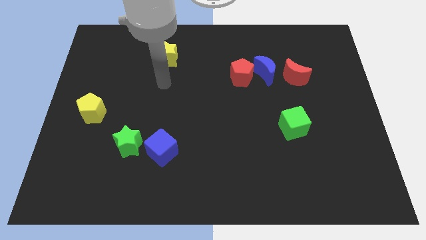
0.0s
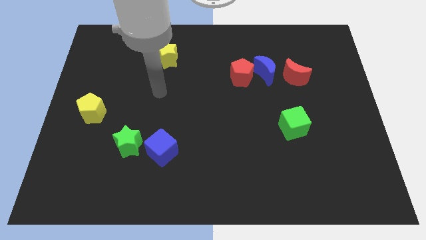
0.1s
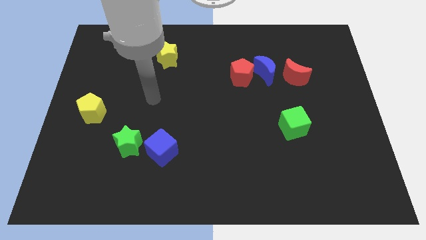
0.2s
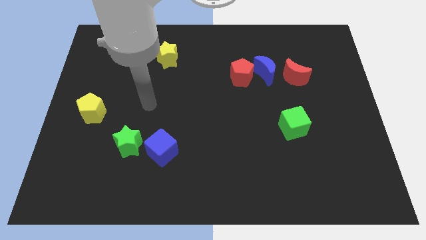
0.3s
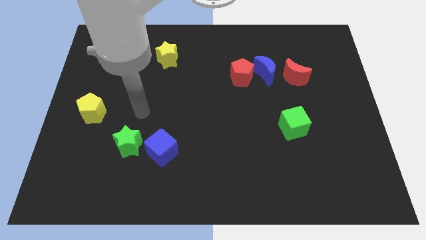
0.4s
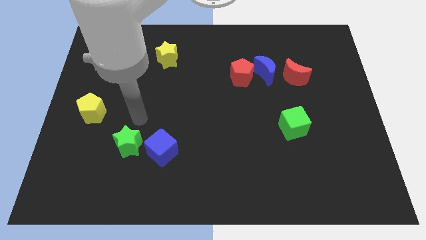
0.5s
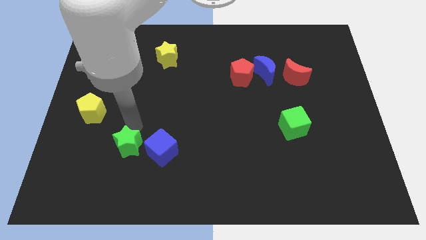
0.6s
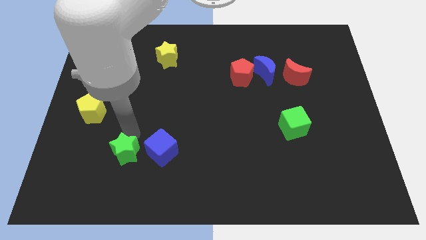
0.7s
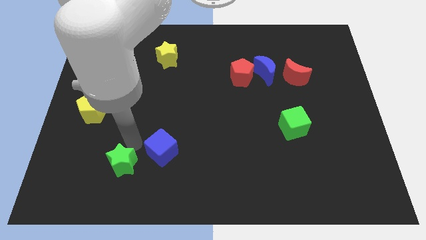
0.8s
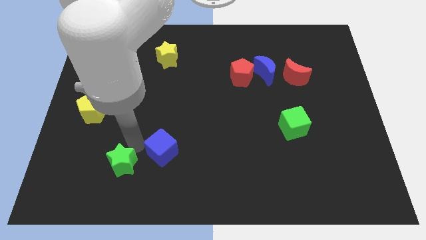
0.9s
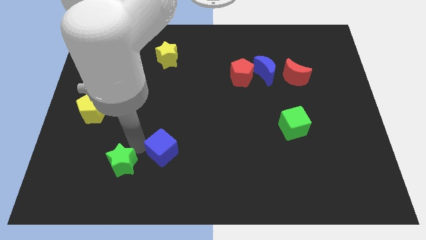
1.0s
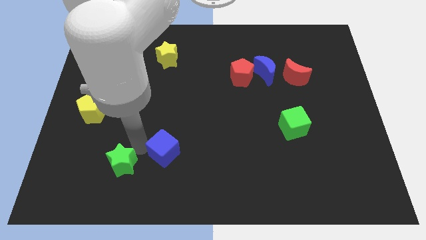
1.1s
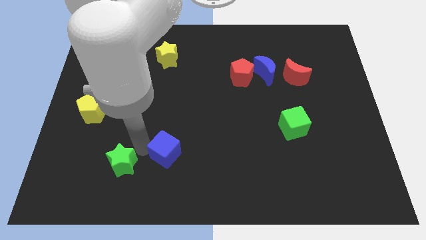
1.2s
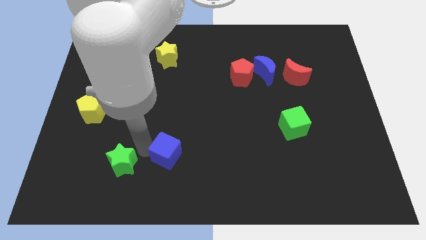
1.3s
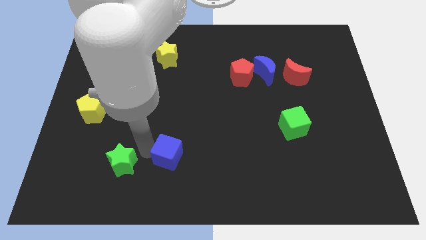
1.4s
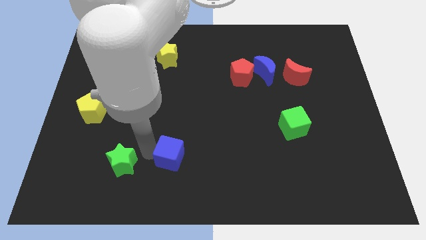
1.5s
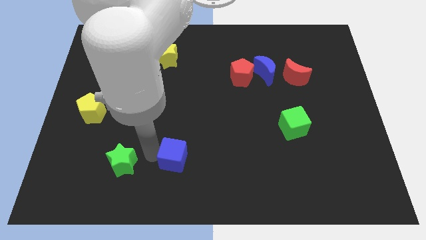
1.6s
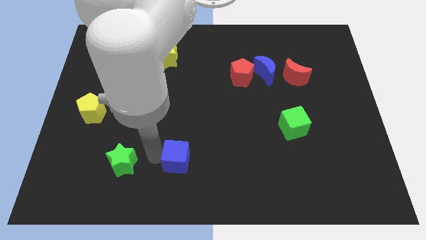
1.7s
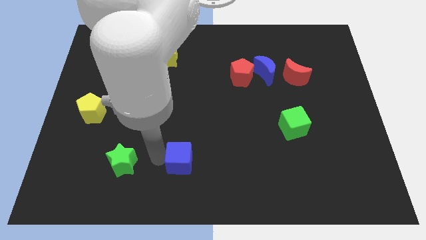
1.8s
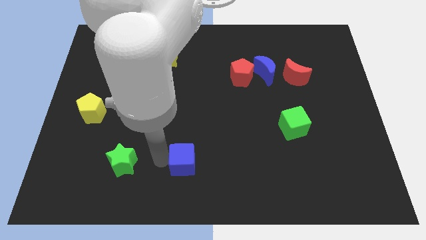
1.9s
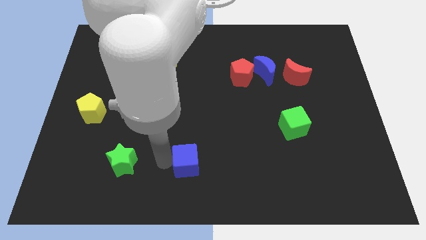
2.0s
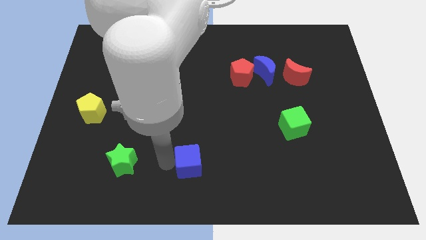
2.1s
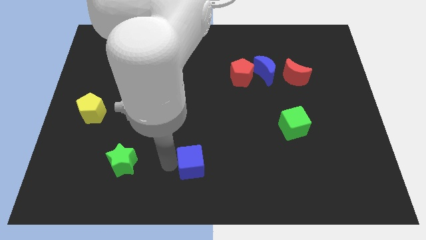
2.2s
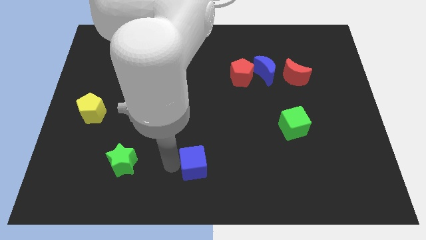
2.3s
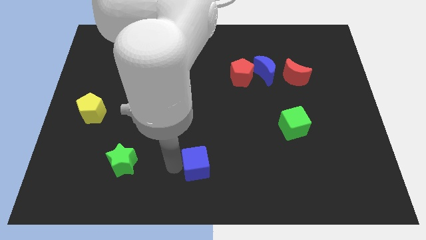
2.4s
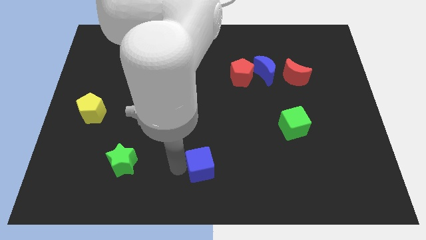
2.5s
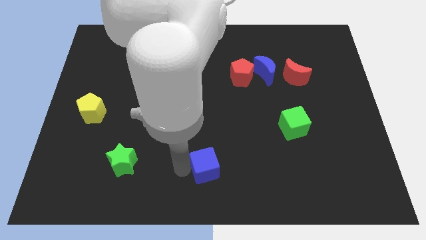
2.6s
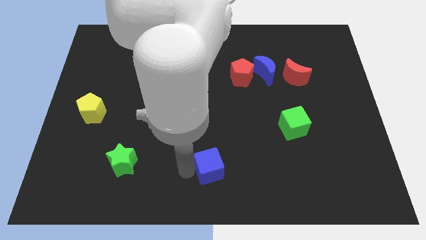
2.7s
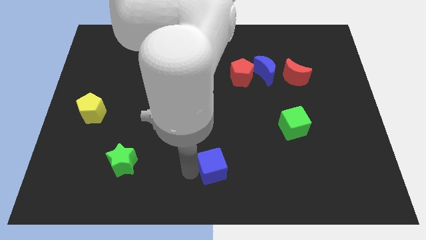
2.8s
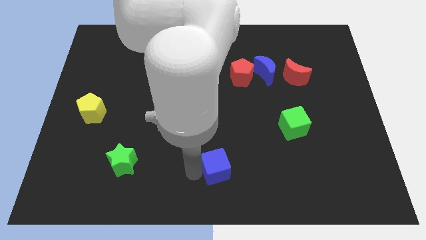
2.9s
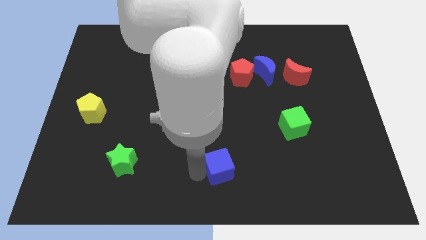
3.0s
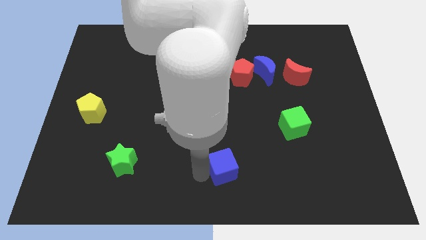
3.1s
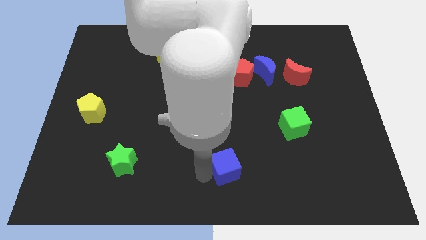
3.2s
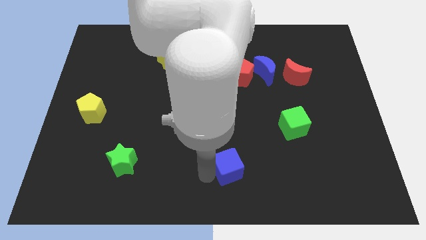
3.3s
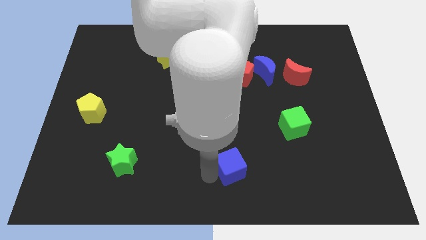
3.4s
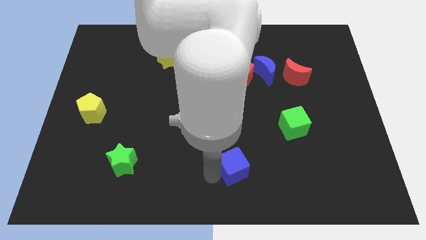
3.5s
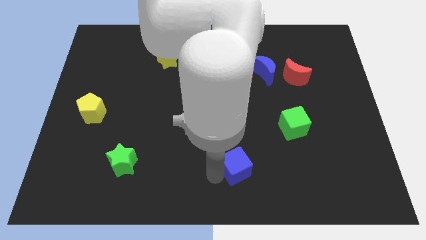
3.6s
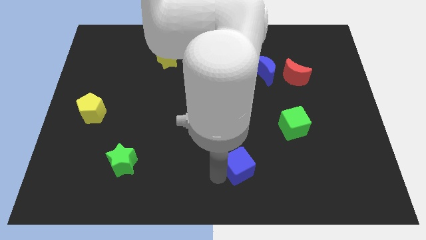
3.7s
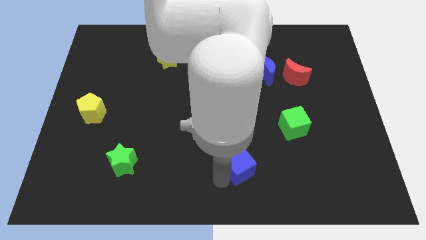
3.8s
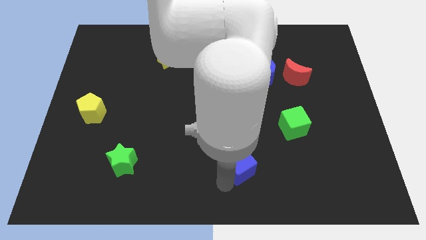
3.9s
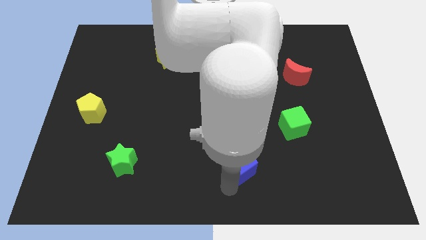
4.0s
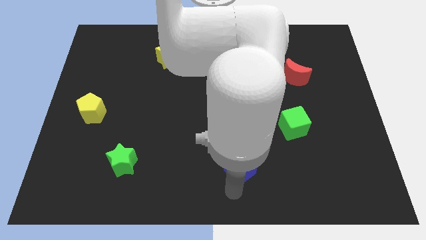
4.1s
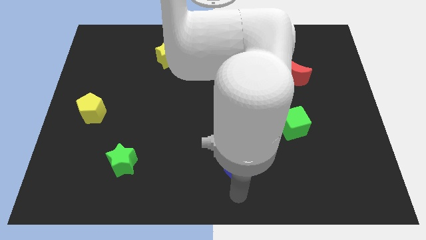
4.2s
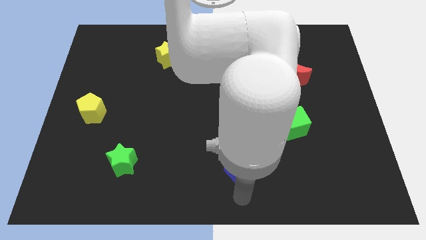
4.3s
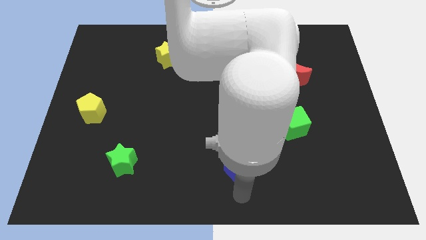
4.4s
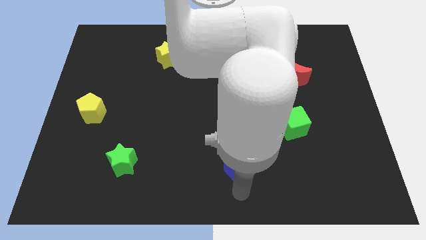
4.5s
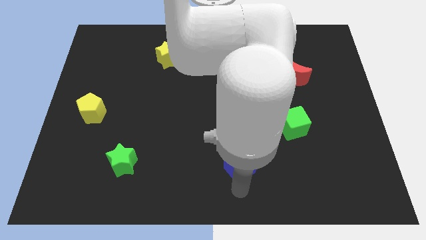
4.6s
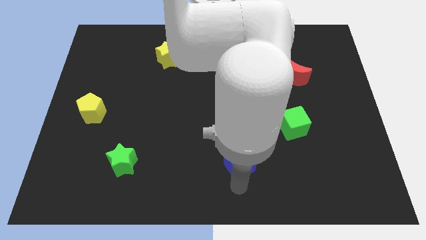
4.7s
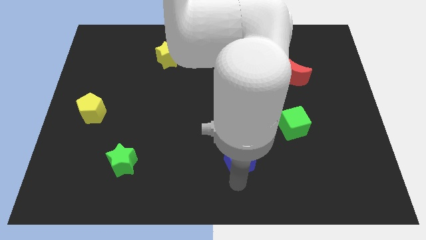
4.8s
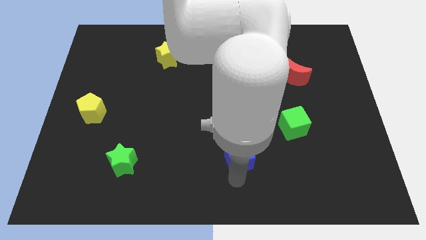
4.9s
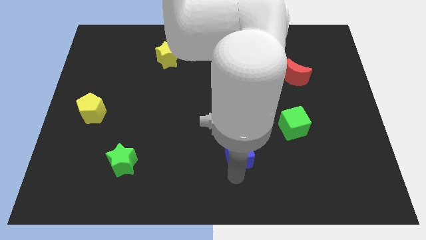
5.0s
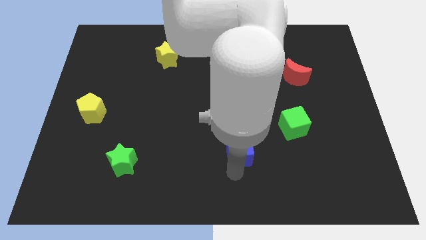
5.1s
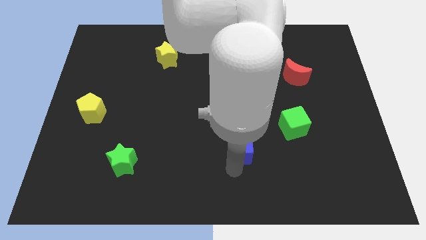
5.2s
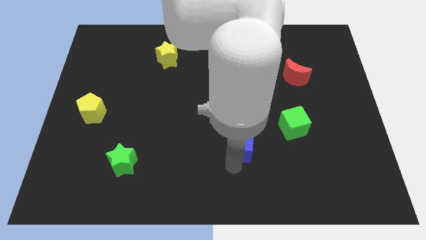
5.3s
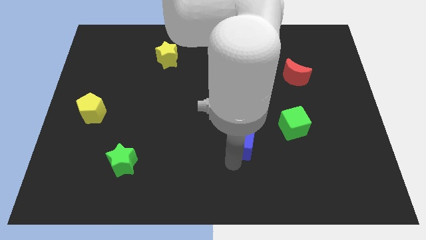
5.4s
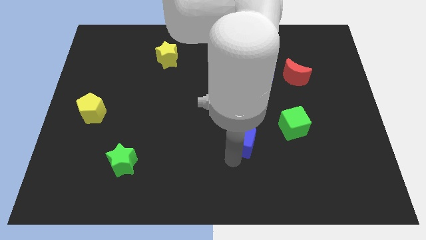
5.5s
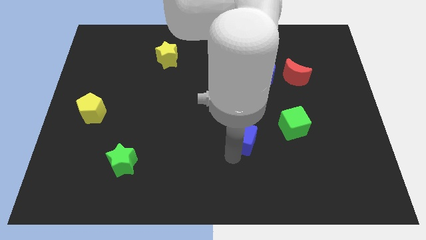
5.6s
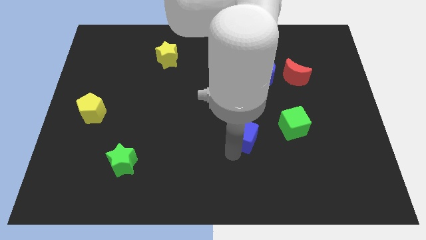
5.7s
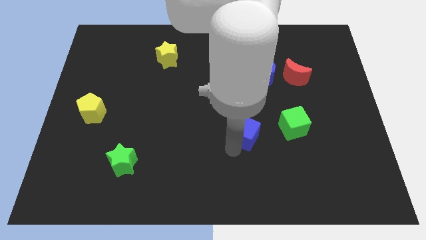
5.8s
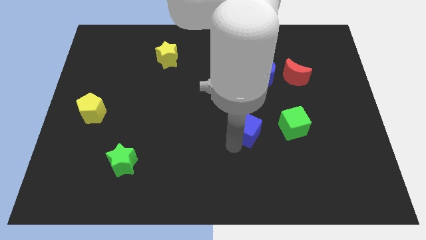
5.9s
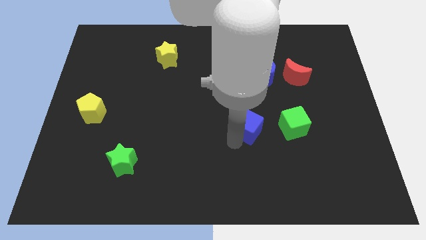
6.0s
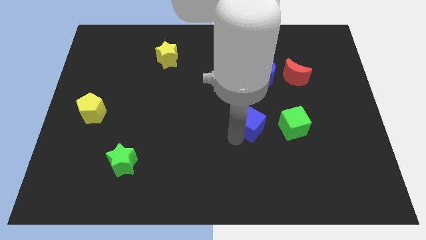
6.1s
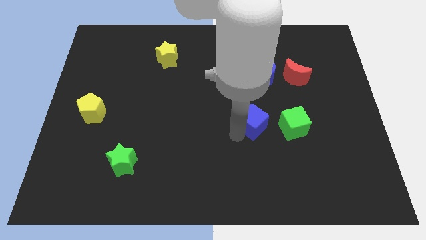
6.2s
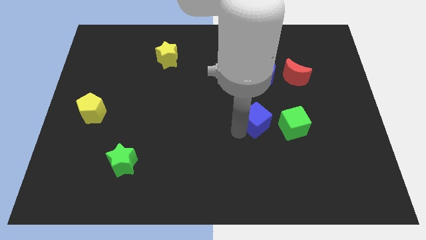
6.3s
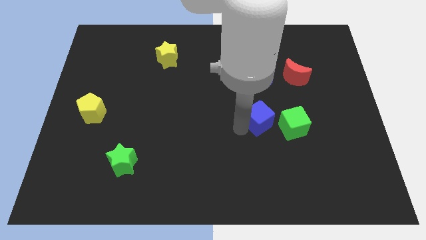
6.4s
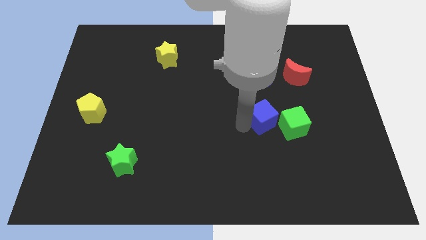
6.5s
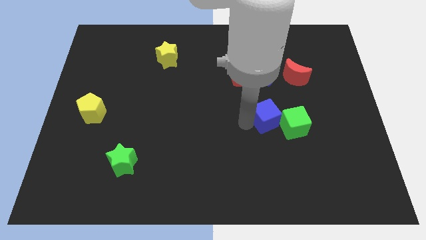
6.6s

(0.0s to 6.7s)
push the blue cube to the right

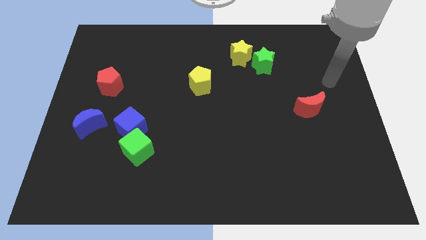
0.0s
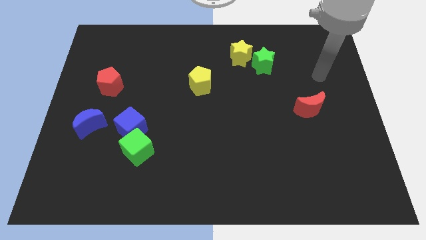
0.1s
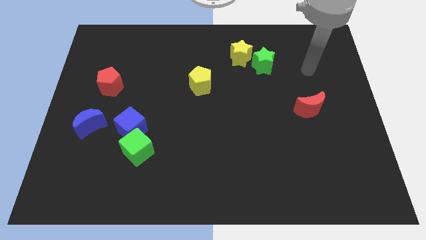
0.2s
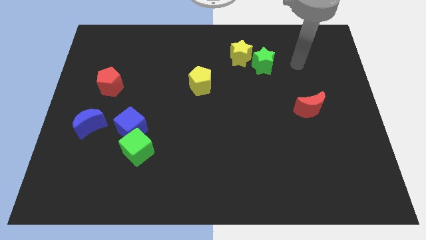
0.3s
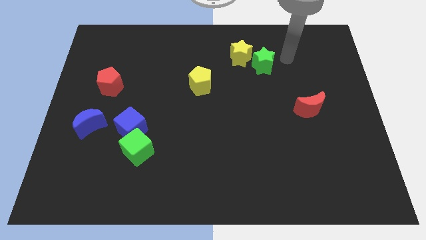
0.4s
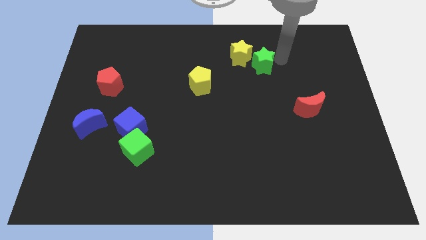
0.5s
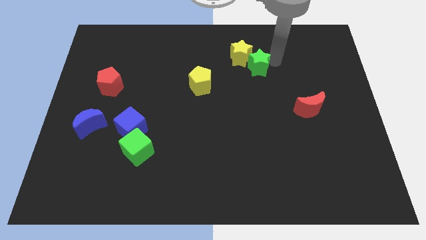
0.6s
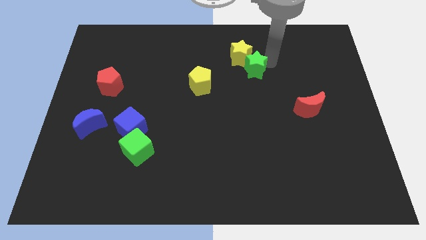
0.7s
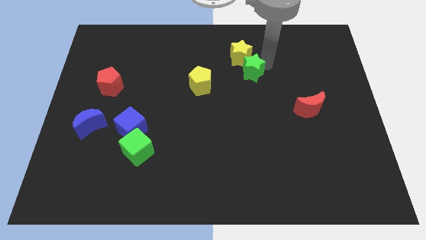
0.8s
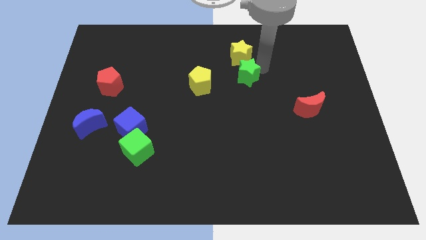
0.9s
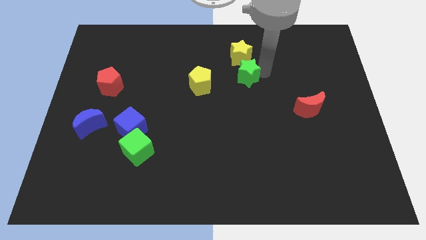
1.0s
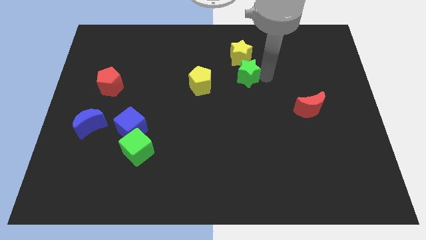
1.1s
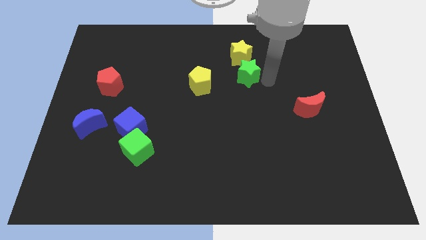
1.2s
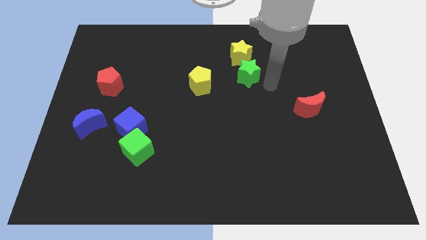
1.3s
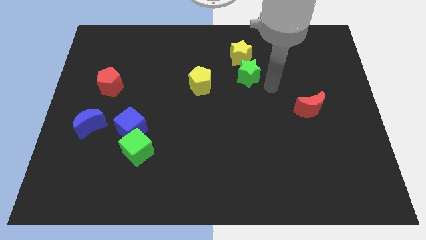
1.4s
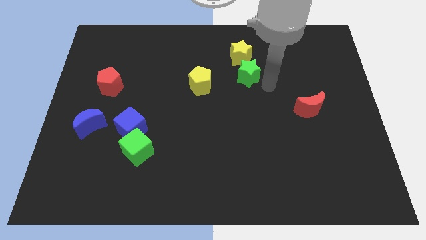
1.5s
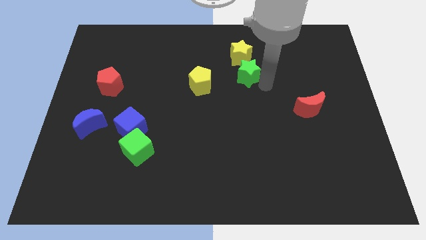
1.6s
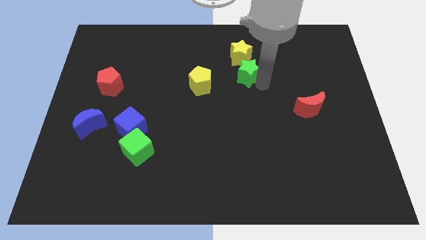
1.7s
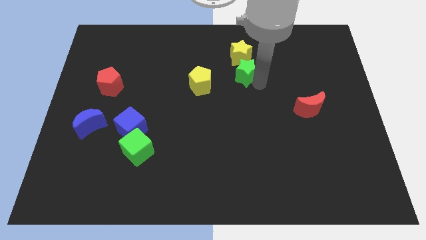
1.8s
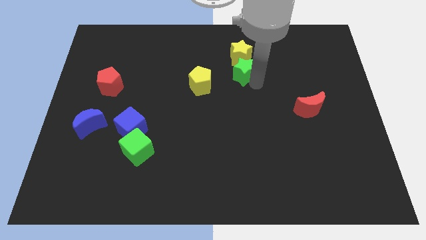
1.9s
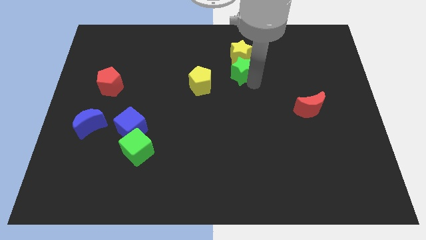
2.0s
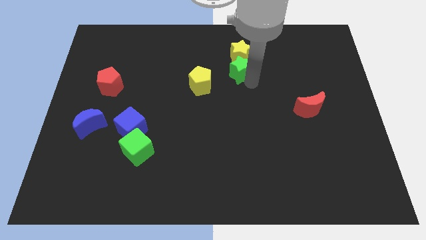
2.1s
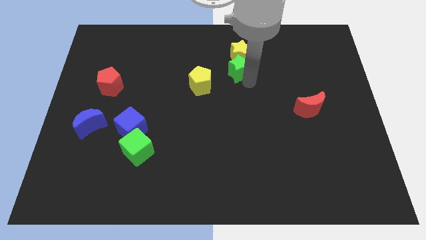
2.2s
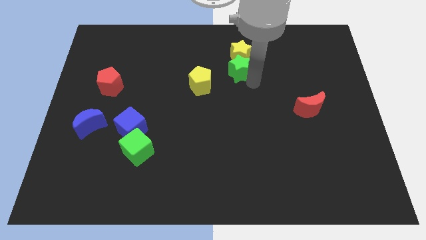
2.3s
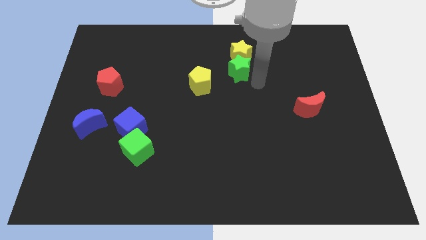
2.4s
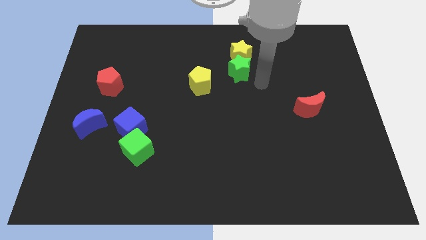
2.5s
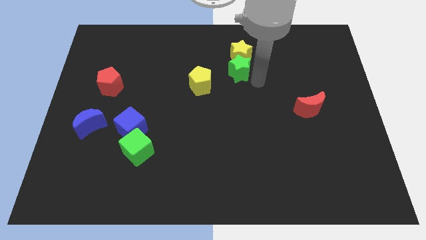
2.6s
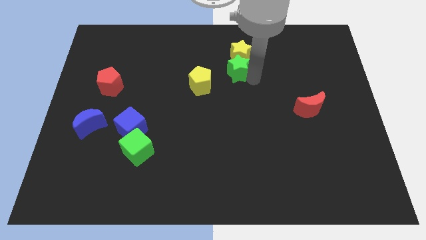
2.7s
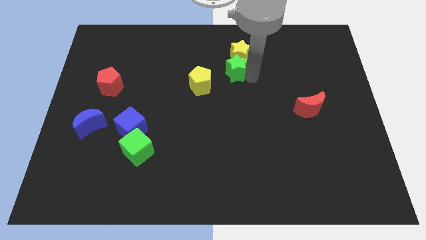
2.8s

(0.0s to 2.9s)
push the green star a little left
